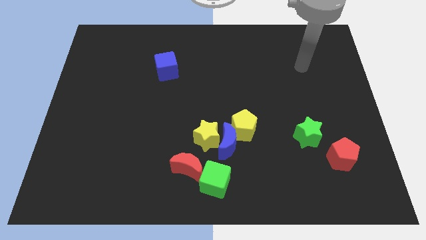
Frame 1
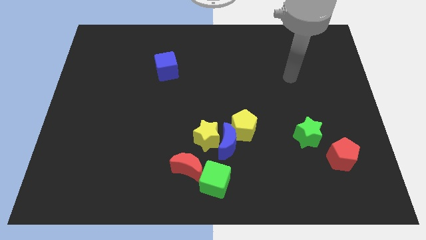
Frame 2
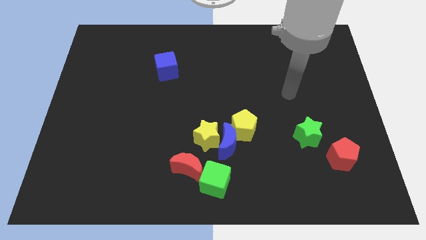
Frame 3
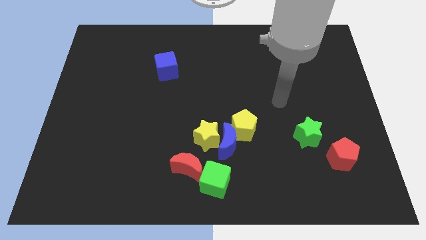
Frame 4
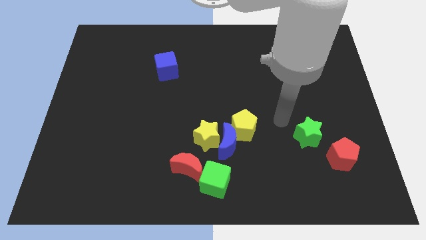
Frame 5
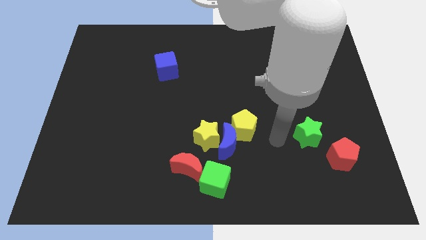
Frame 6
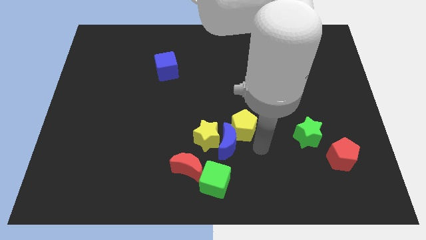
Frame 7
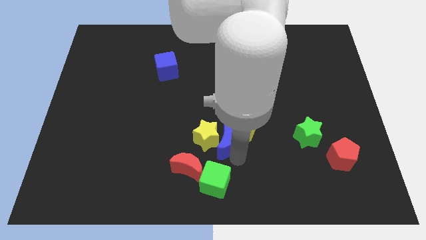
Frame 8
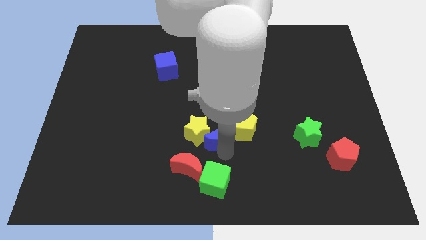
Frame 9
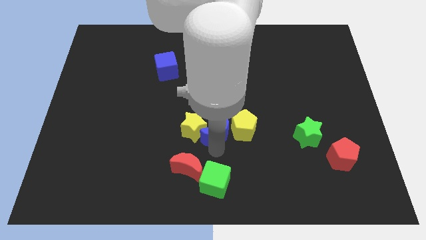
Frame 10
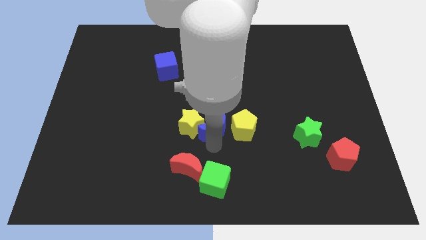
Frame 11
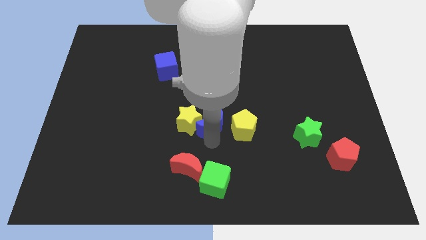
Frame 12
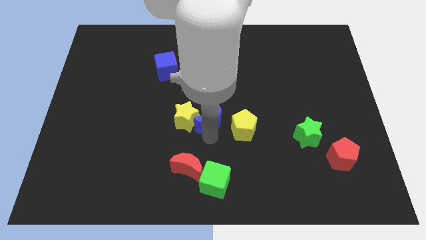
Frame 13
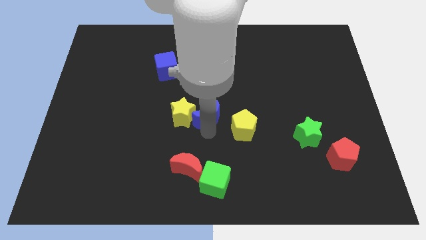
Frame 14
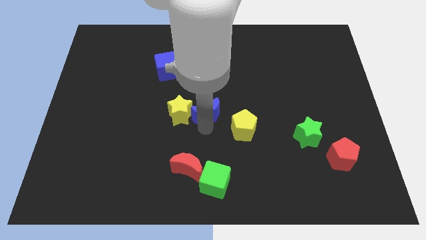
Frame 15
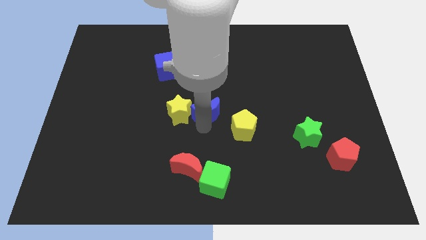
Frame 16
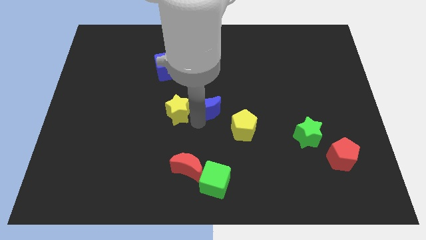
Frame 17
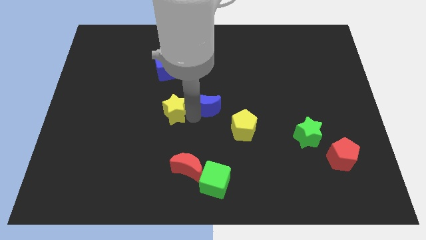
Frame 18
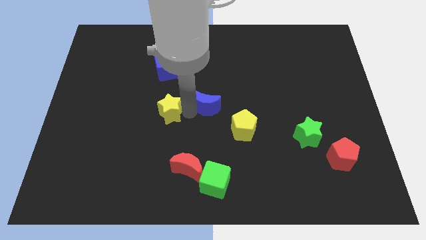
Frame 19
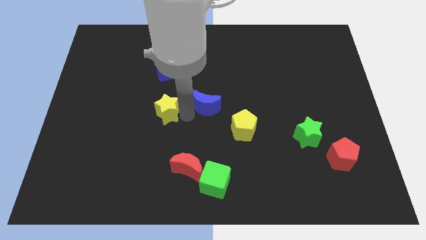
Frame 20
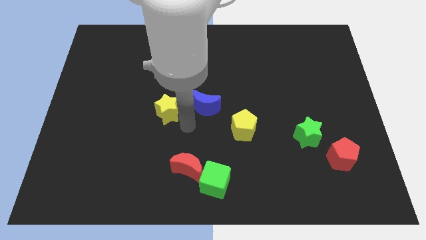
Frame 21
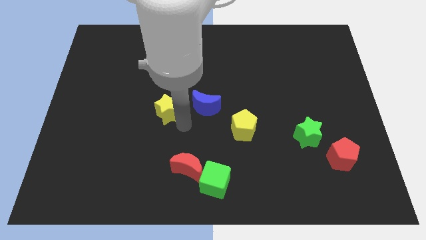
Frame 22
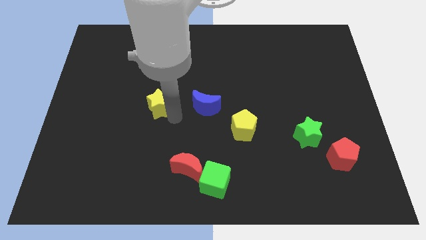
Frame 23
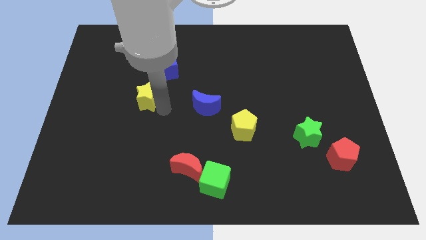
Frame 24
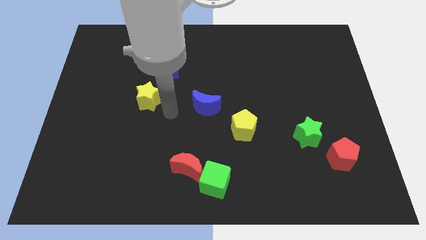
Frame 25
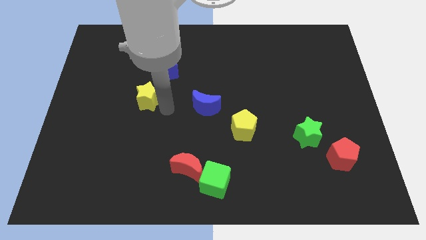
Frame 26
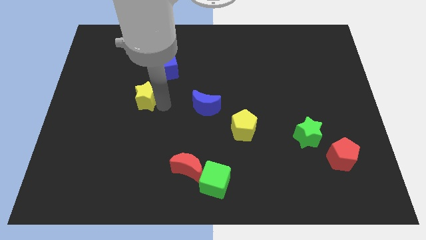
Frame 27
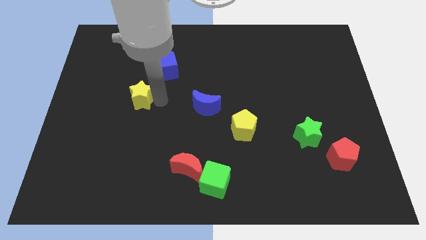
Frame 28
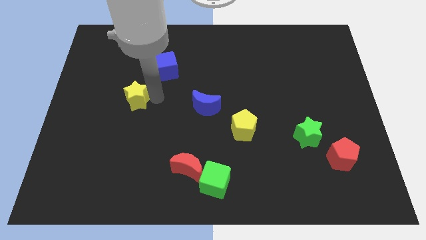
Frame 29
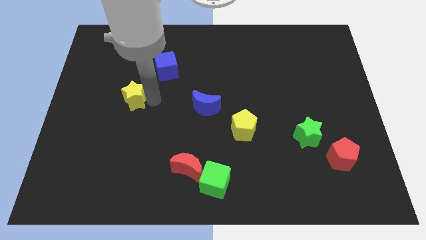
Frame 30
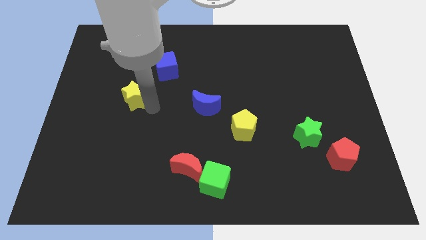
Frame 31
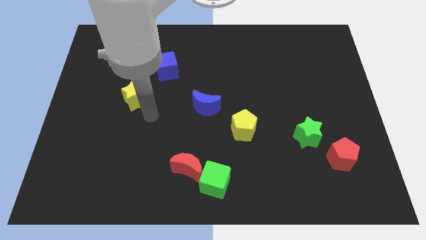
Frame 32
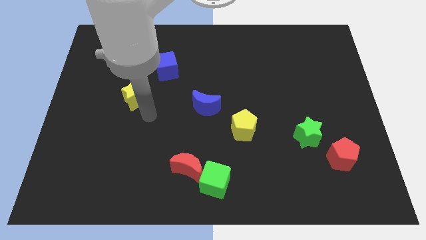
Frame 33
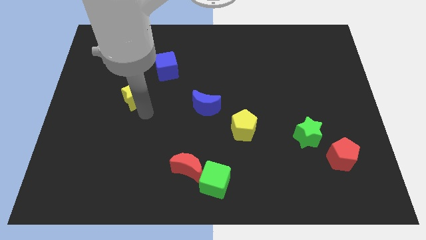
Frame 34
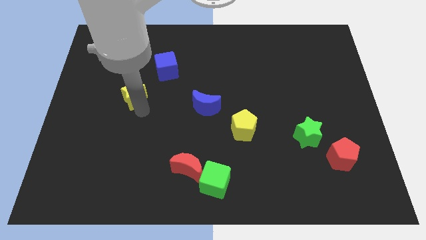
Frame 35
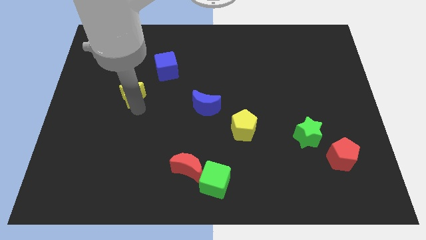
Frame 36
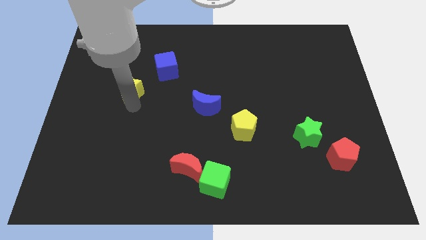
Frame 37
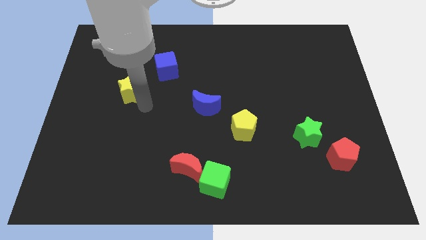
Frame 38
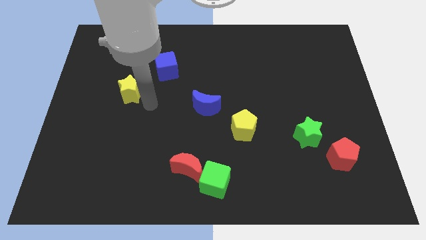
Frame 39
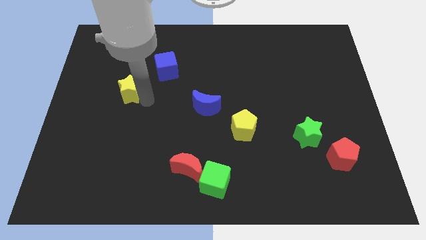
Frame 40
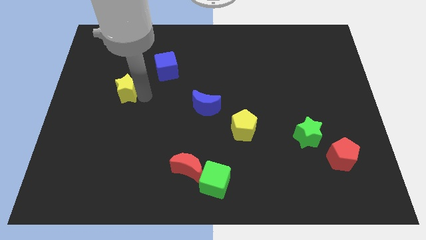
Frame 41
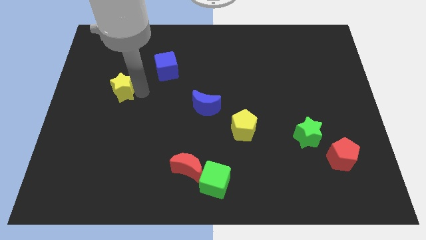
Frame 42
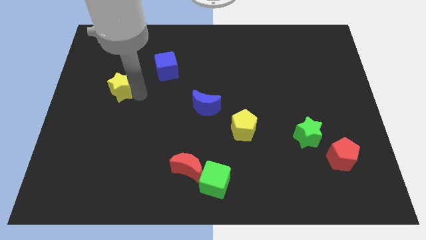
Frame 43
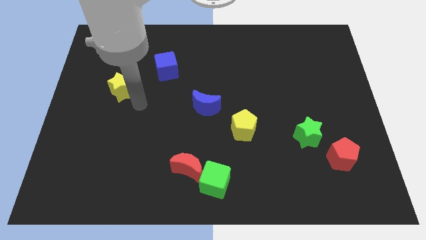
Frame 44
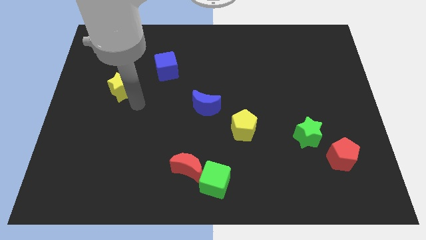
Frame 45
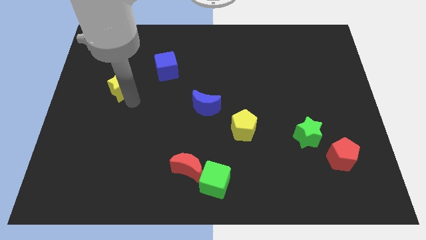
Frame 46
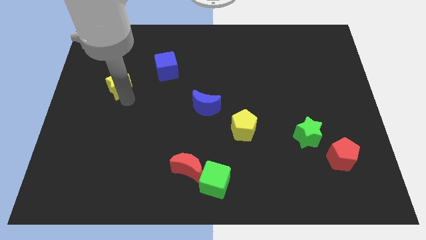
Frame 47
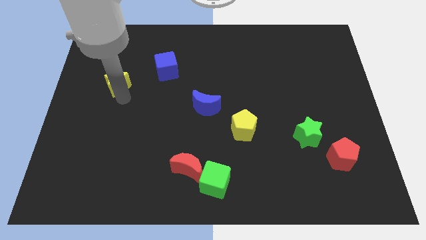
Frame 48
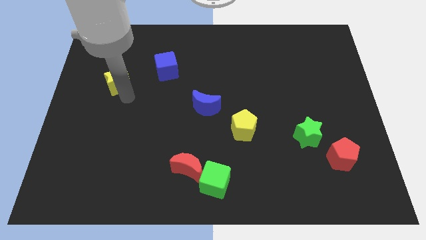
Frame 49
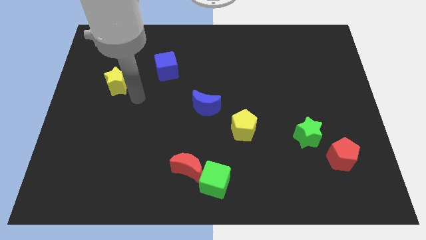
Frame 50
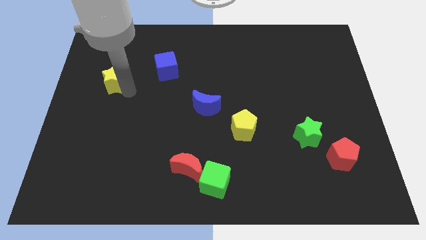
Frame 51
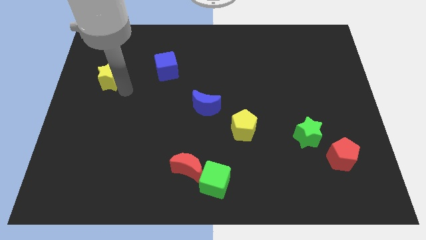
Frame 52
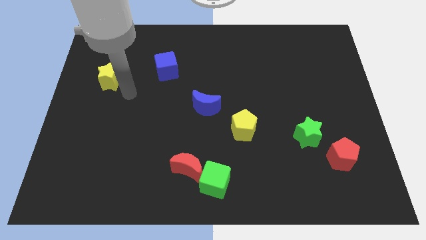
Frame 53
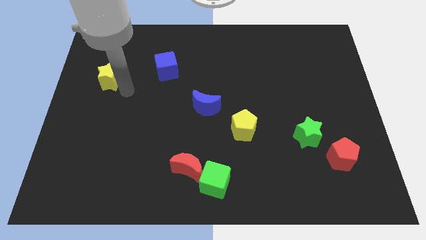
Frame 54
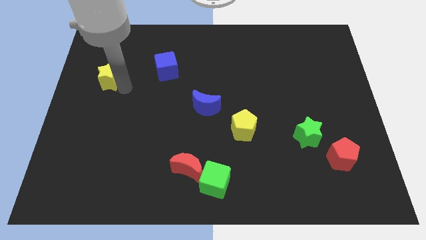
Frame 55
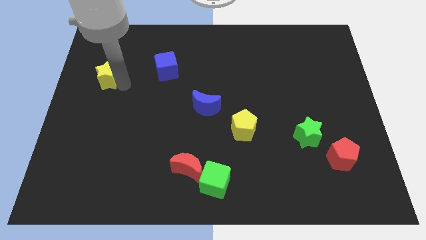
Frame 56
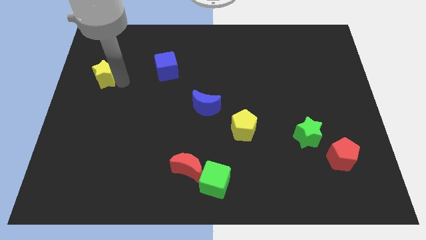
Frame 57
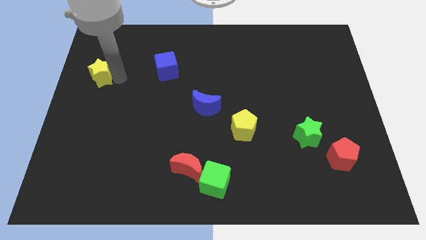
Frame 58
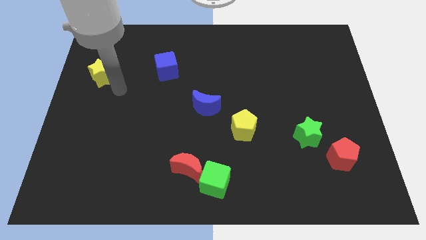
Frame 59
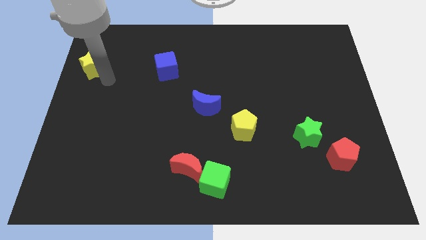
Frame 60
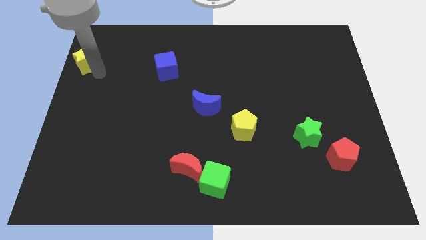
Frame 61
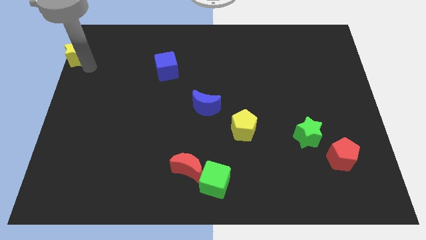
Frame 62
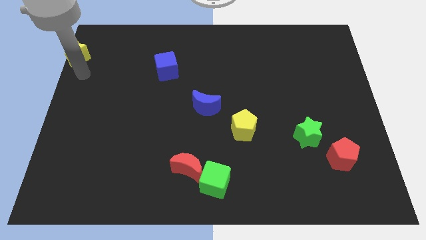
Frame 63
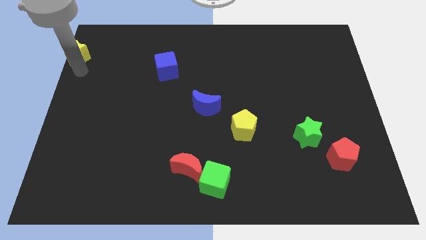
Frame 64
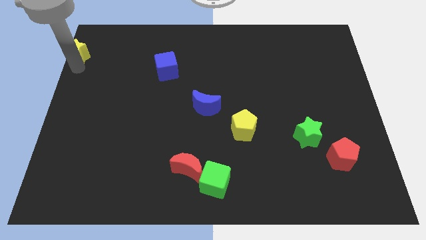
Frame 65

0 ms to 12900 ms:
push the yellow star to the top left corner
